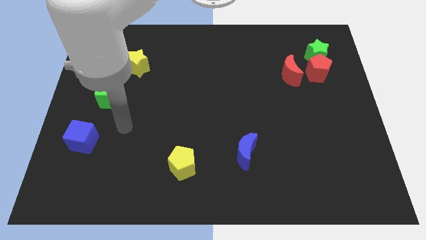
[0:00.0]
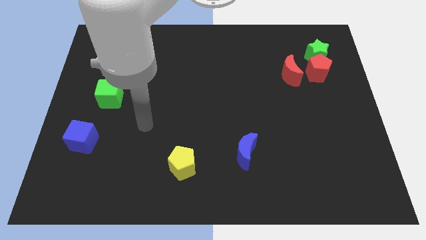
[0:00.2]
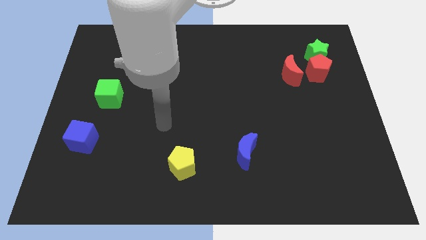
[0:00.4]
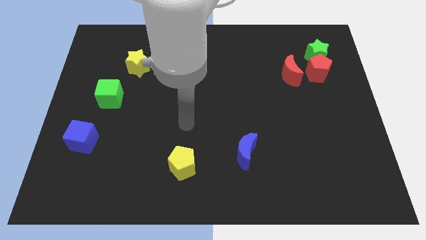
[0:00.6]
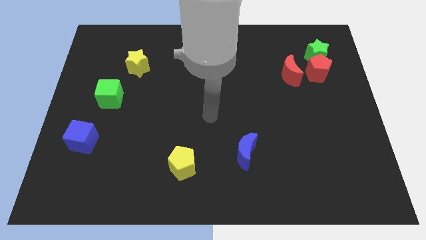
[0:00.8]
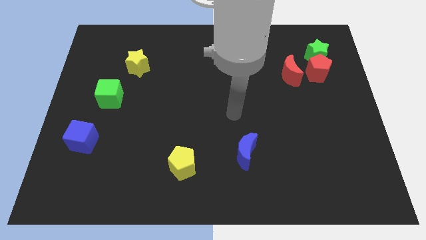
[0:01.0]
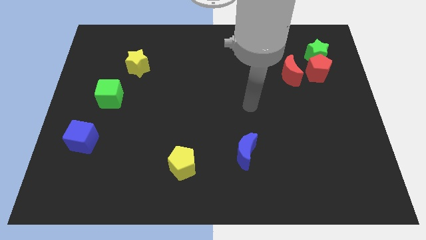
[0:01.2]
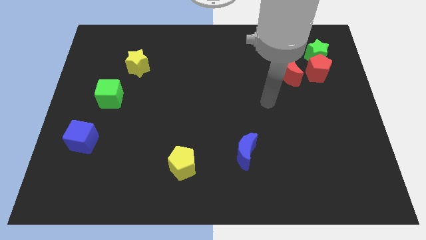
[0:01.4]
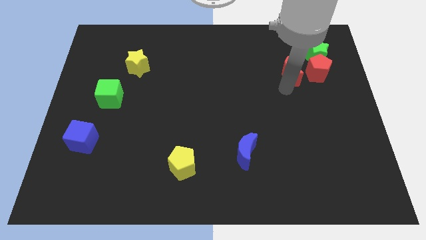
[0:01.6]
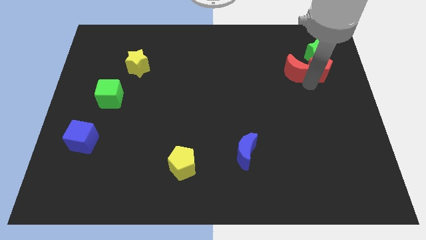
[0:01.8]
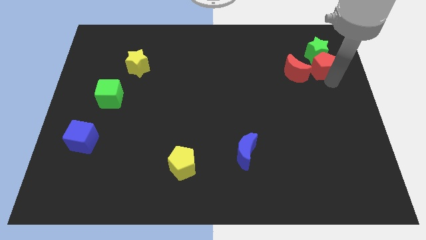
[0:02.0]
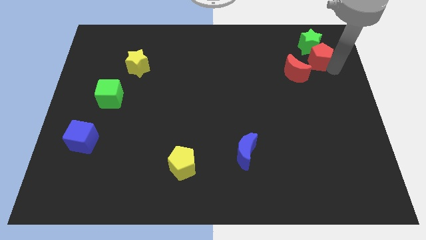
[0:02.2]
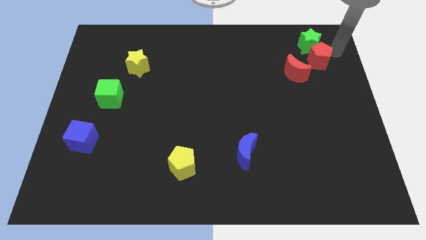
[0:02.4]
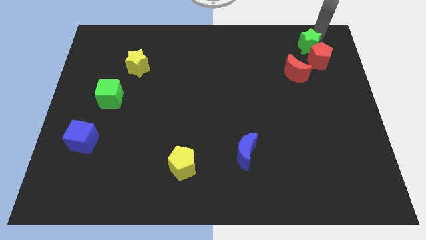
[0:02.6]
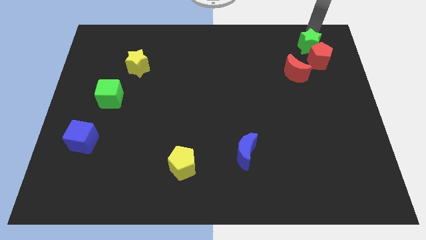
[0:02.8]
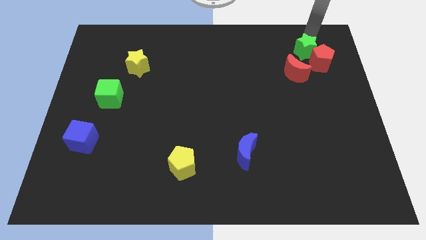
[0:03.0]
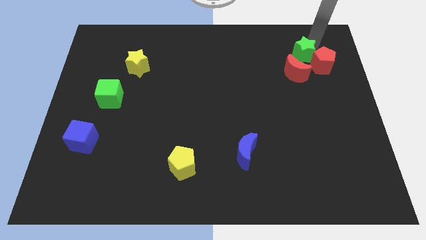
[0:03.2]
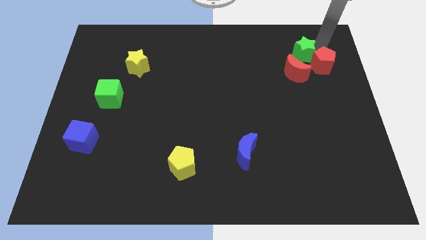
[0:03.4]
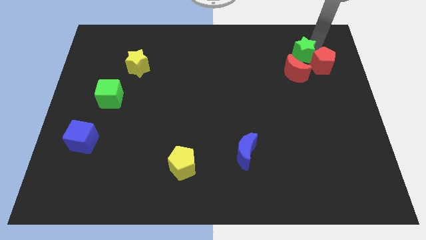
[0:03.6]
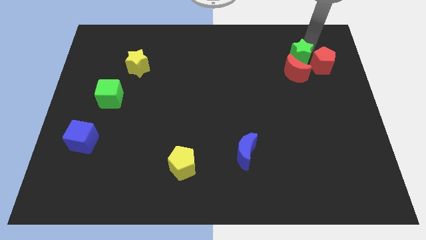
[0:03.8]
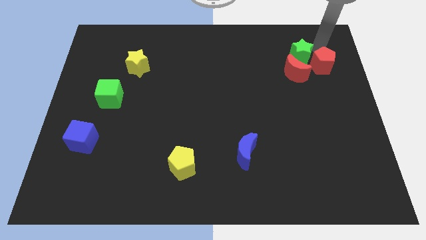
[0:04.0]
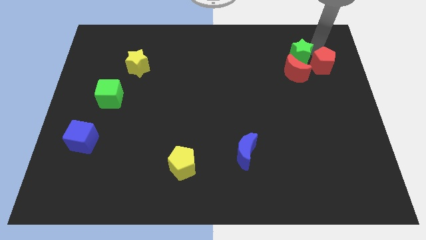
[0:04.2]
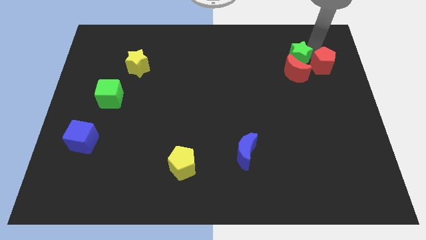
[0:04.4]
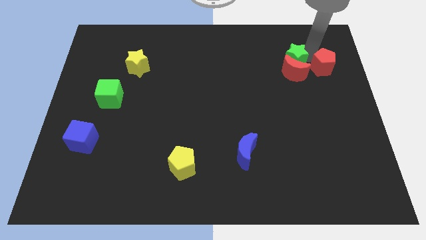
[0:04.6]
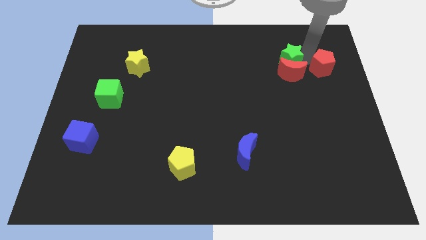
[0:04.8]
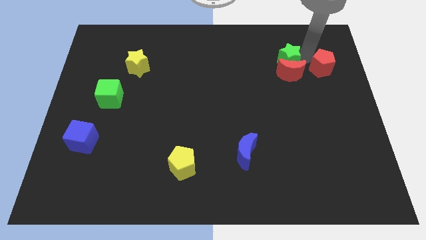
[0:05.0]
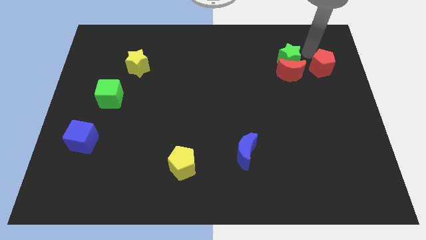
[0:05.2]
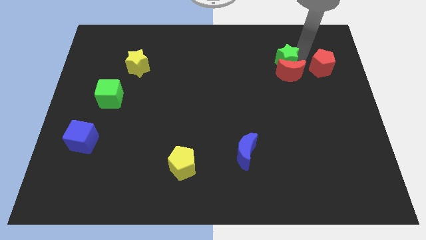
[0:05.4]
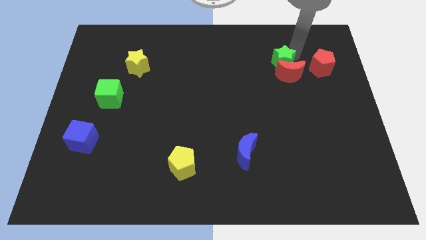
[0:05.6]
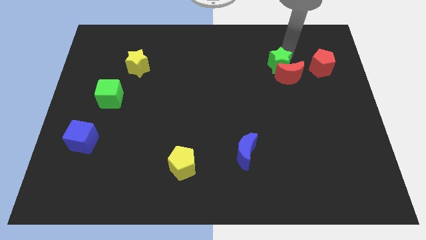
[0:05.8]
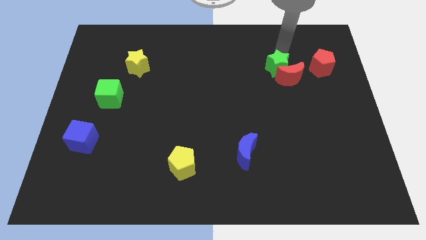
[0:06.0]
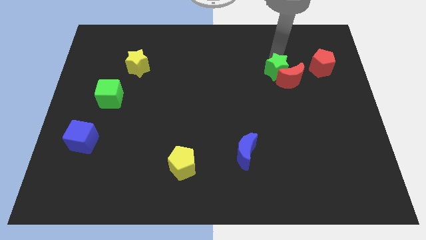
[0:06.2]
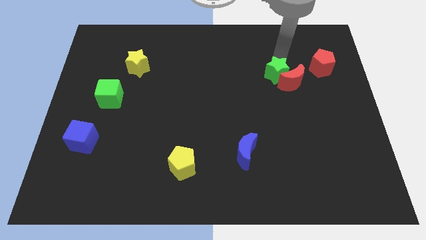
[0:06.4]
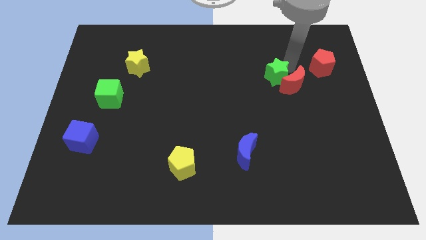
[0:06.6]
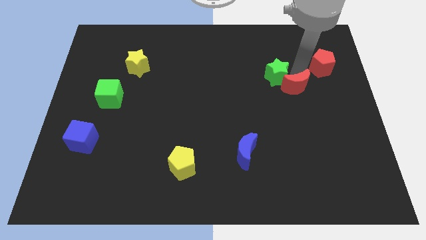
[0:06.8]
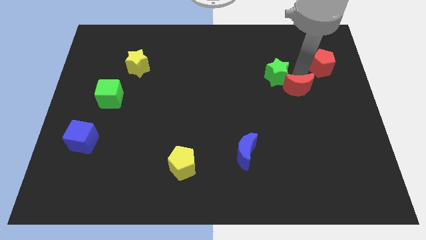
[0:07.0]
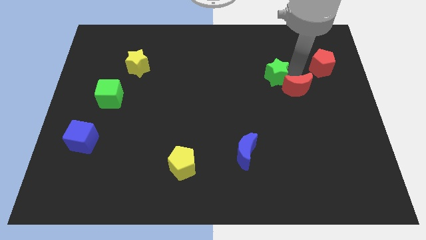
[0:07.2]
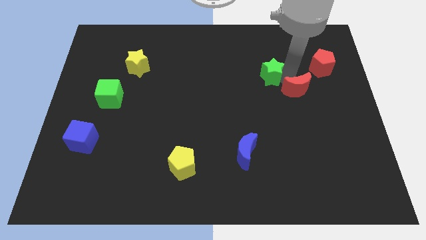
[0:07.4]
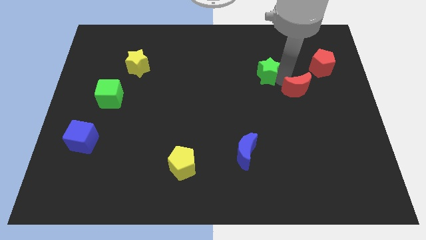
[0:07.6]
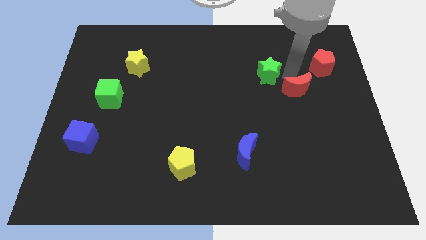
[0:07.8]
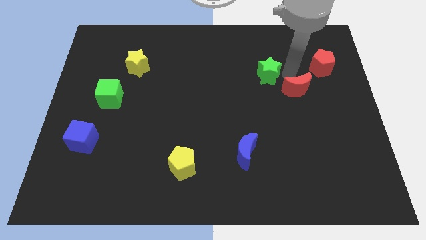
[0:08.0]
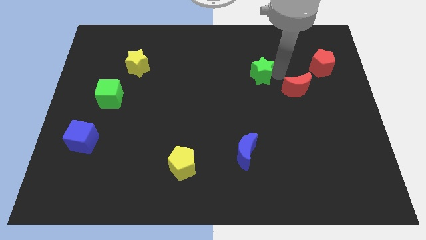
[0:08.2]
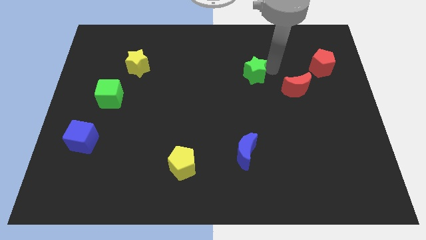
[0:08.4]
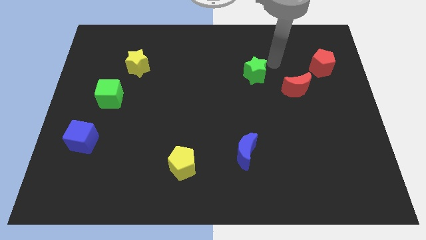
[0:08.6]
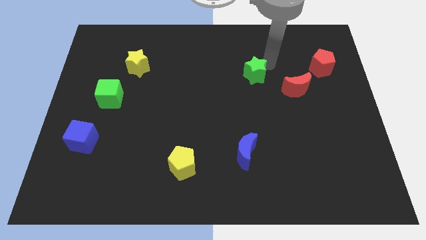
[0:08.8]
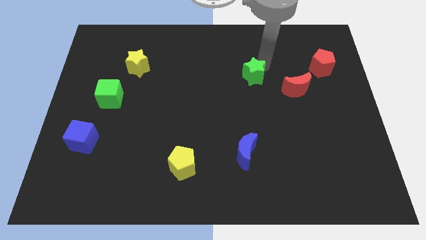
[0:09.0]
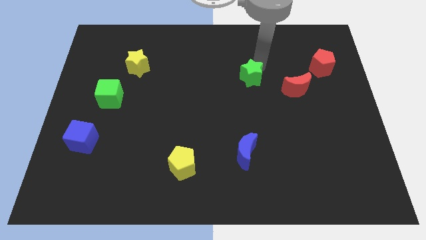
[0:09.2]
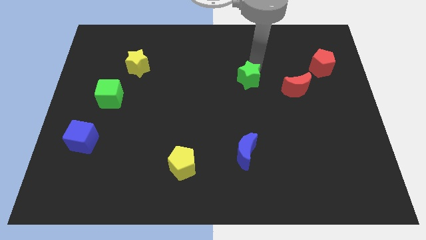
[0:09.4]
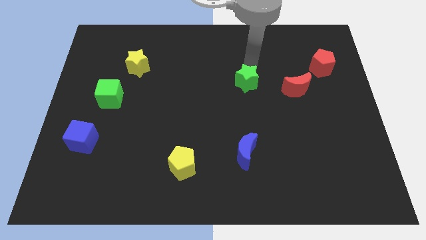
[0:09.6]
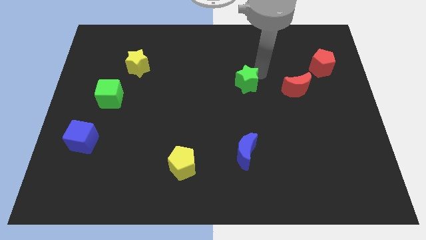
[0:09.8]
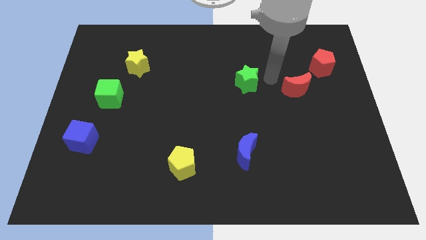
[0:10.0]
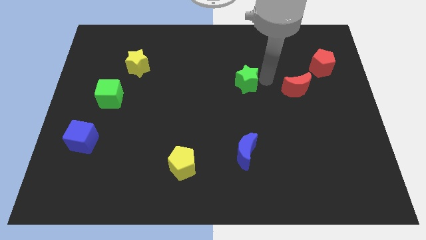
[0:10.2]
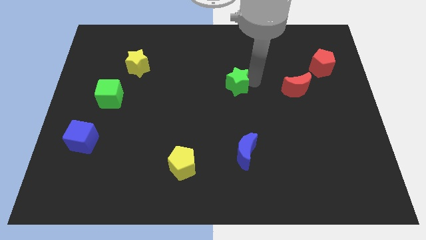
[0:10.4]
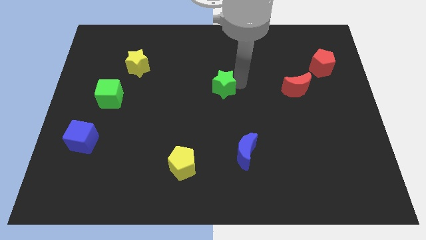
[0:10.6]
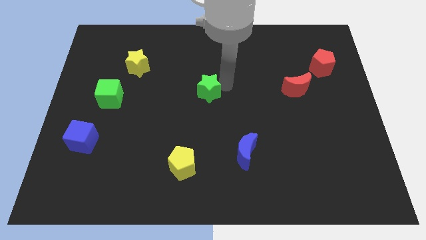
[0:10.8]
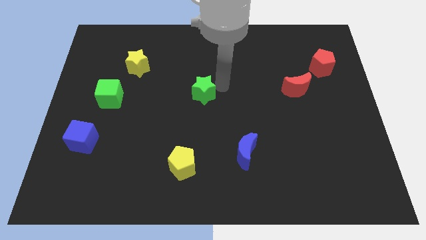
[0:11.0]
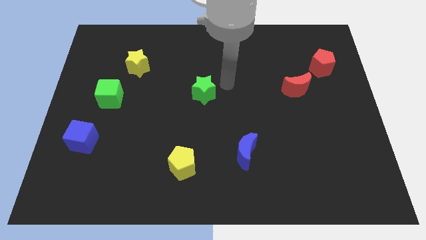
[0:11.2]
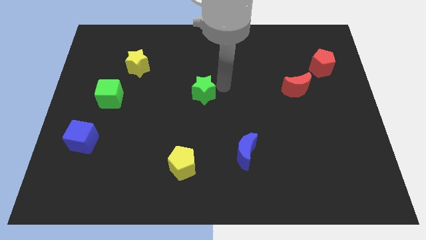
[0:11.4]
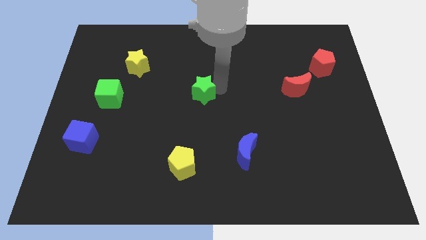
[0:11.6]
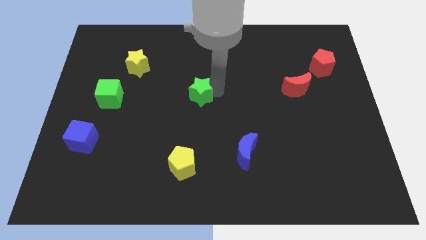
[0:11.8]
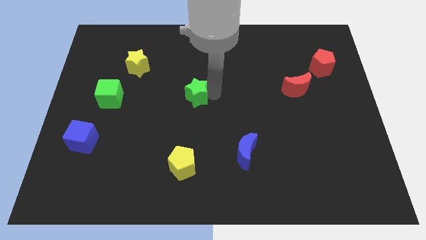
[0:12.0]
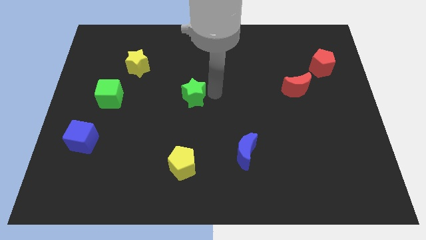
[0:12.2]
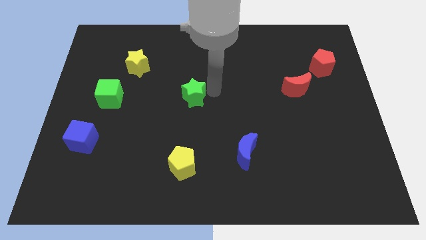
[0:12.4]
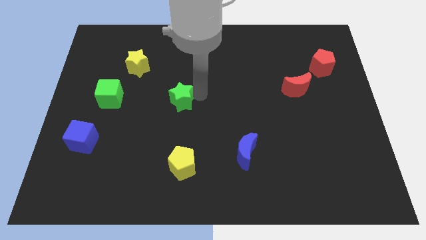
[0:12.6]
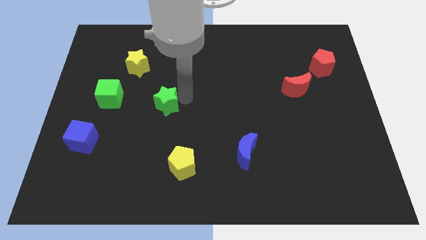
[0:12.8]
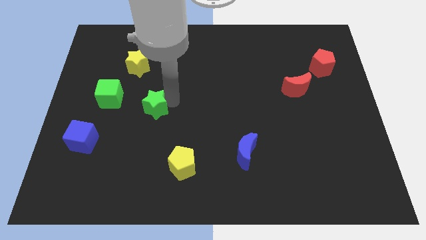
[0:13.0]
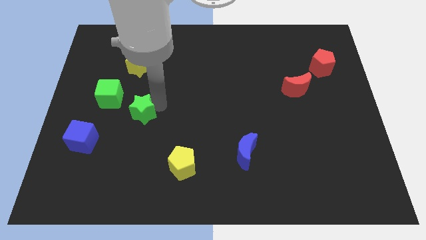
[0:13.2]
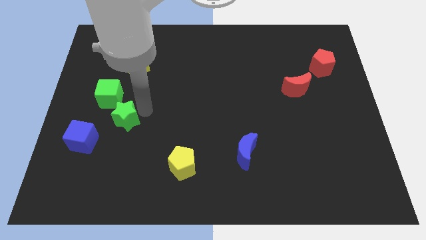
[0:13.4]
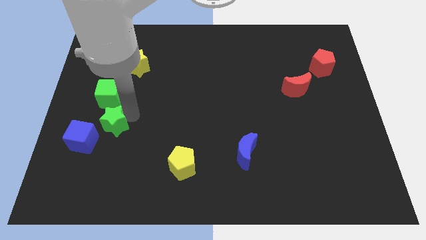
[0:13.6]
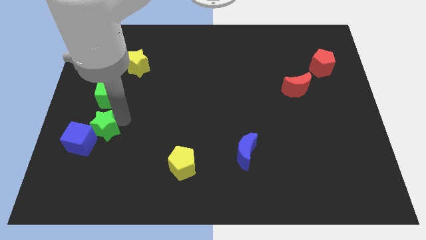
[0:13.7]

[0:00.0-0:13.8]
slide the green star next to the blue cube

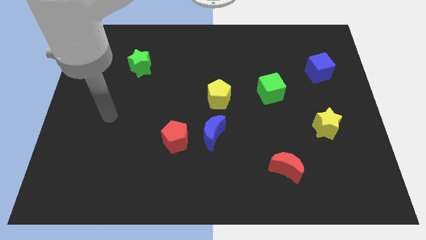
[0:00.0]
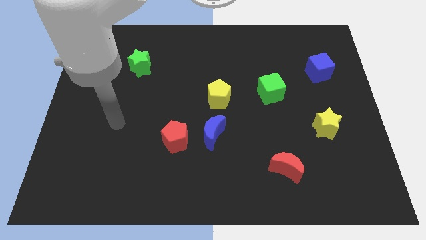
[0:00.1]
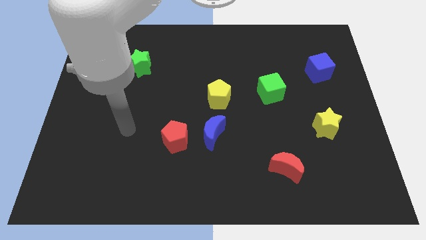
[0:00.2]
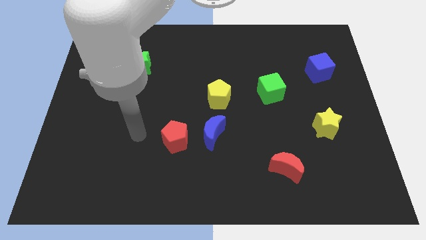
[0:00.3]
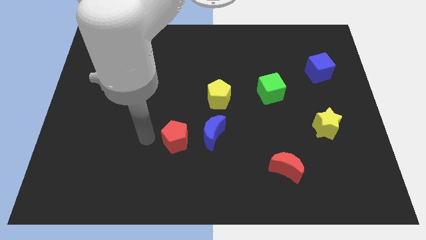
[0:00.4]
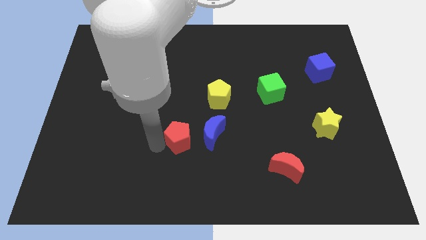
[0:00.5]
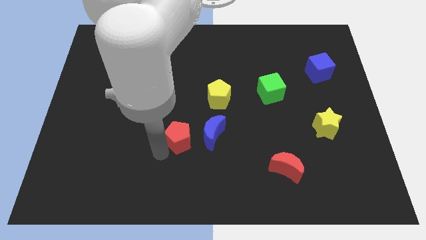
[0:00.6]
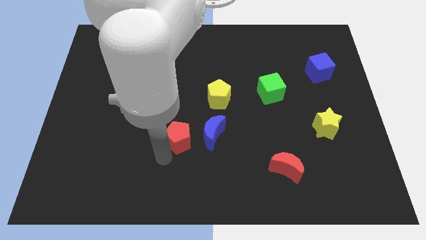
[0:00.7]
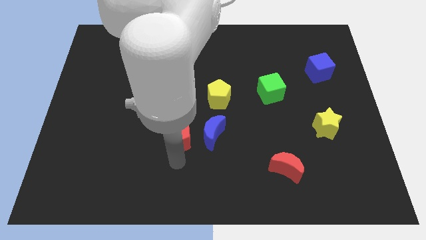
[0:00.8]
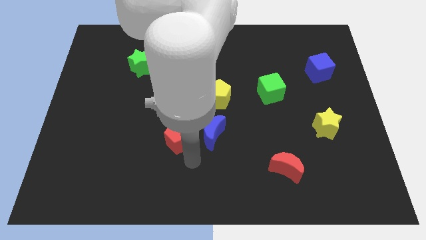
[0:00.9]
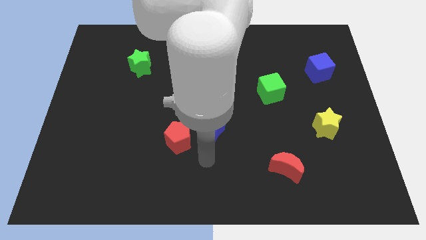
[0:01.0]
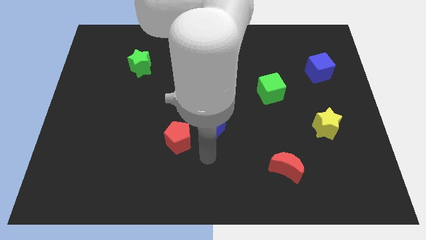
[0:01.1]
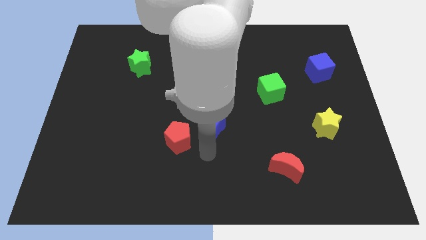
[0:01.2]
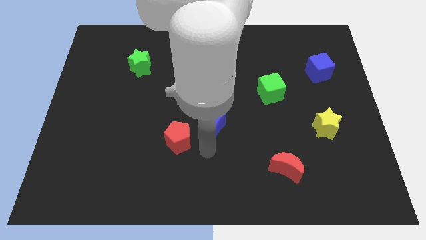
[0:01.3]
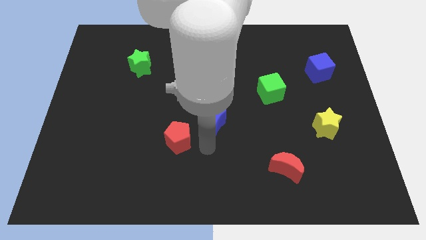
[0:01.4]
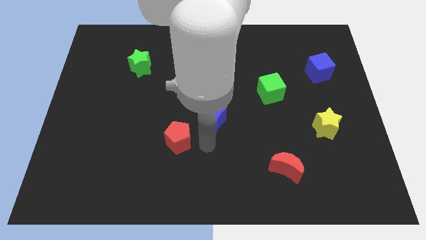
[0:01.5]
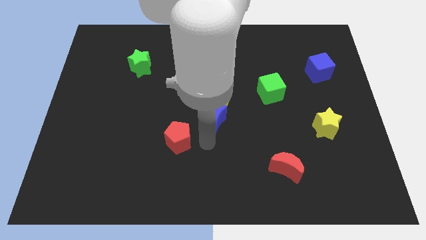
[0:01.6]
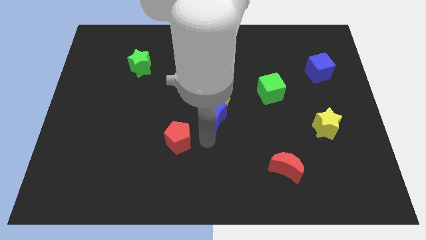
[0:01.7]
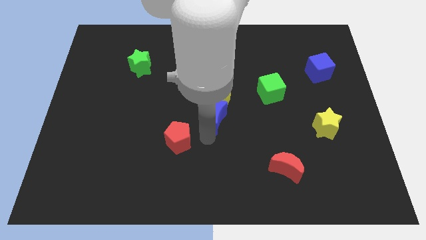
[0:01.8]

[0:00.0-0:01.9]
move the blue moon next to the yellow pentagon
